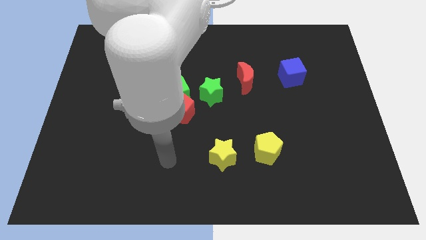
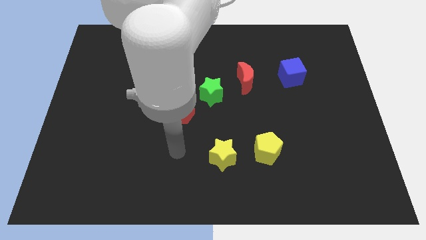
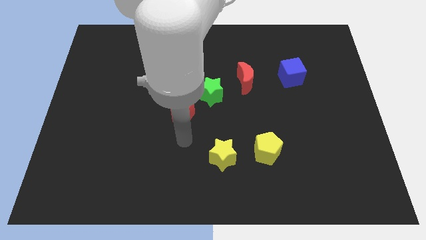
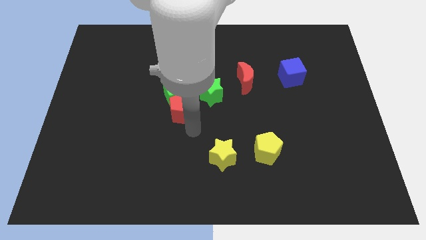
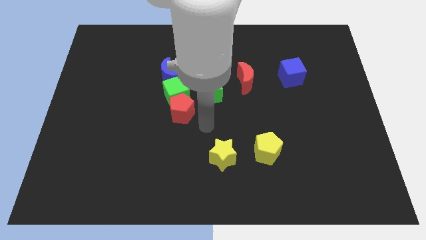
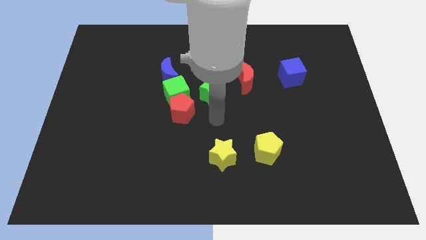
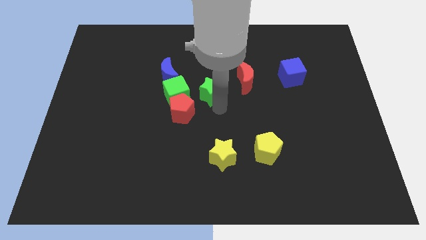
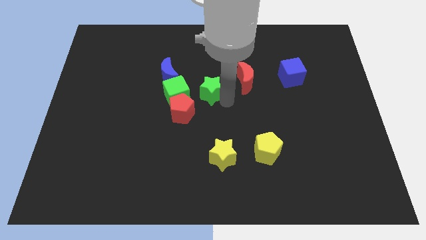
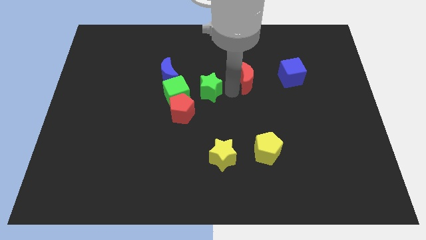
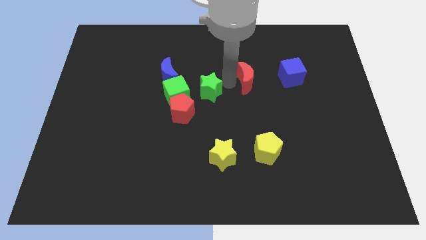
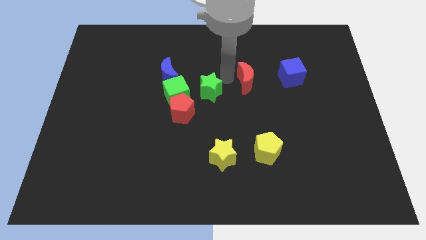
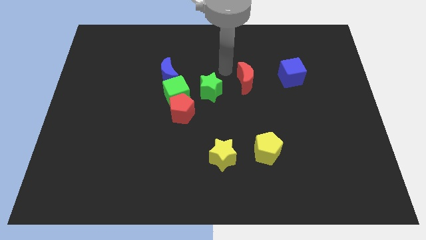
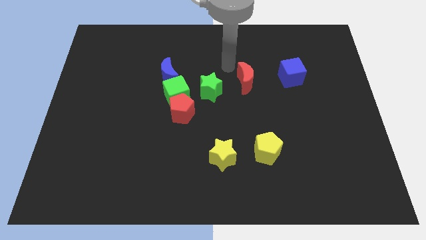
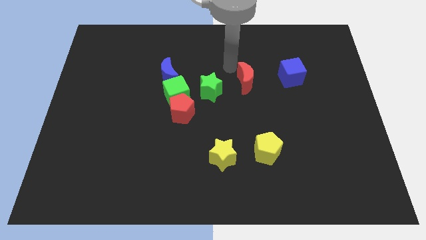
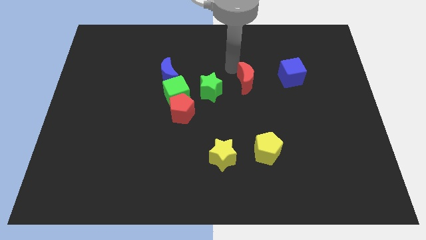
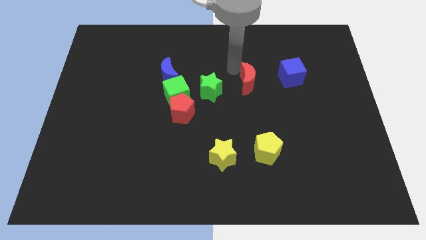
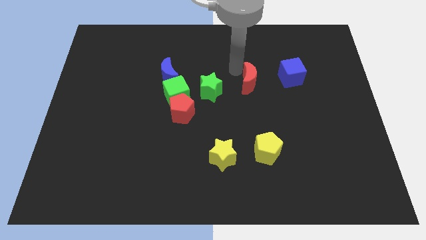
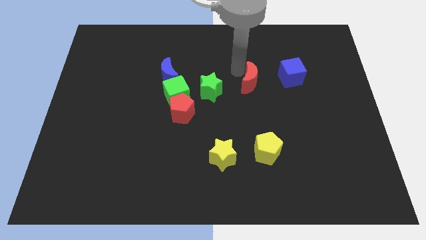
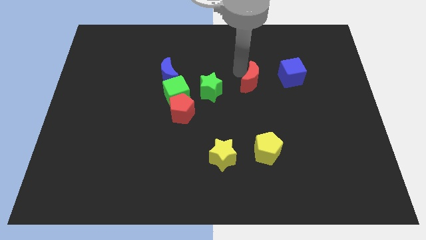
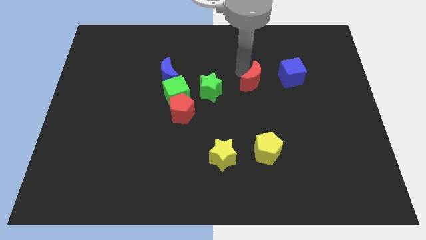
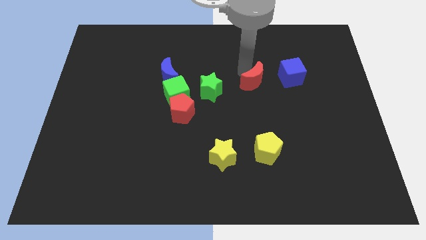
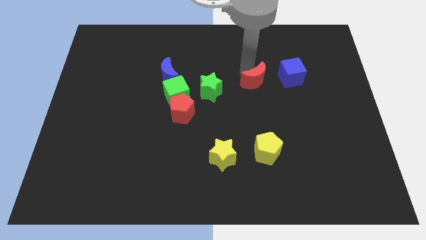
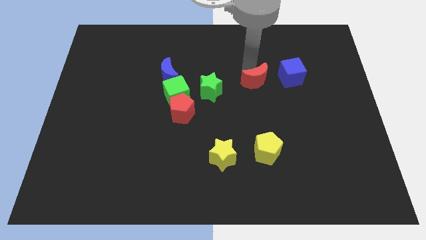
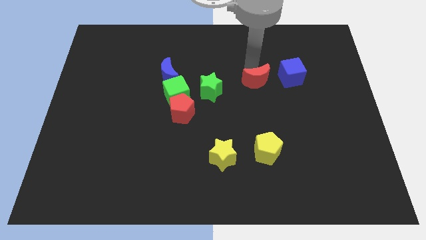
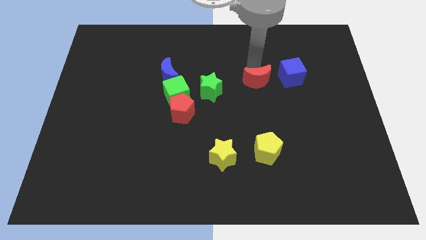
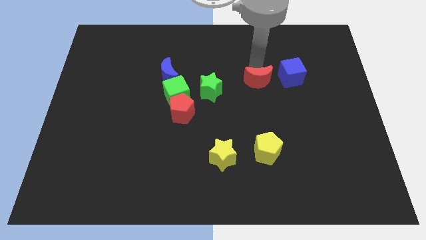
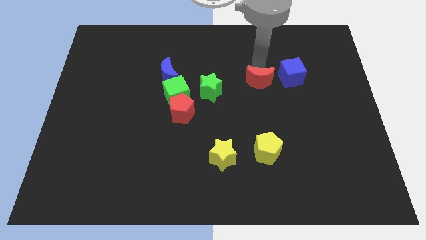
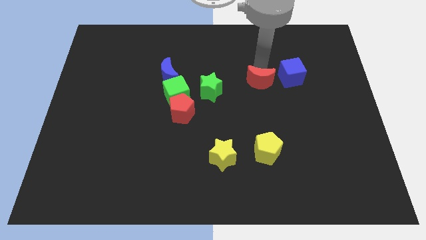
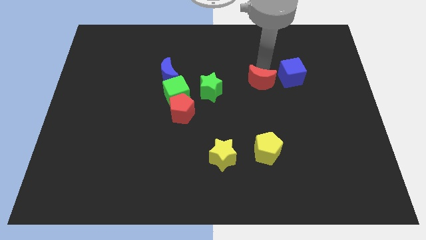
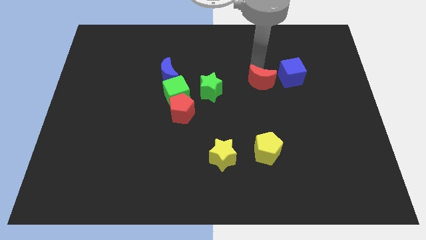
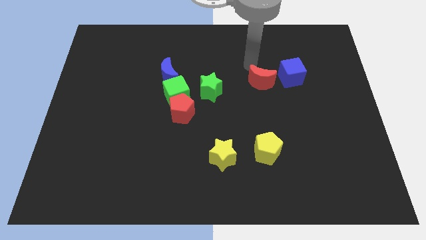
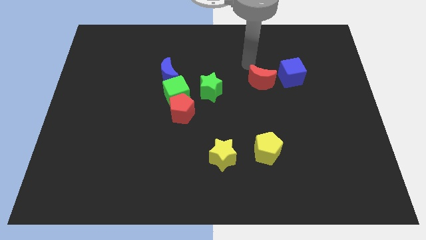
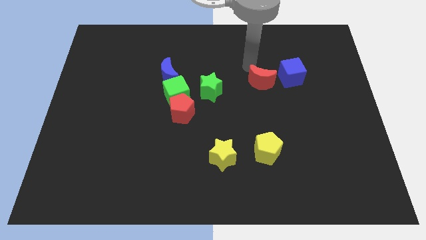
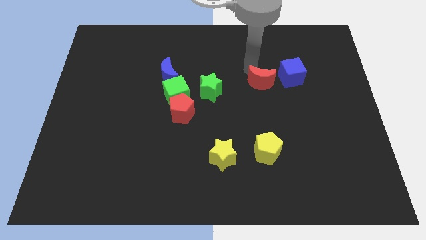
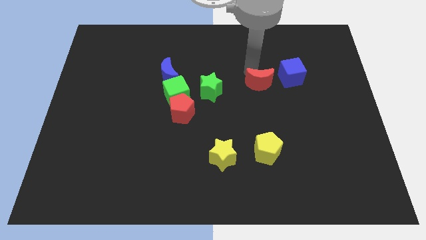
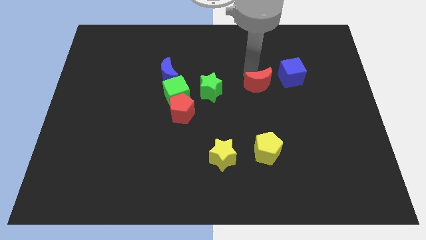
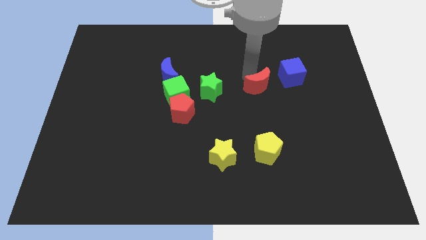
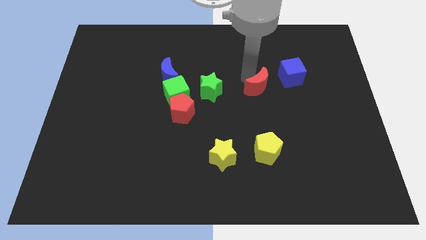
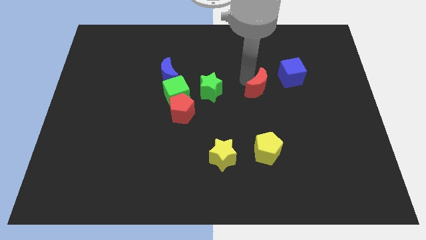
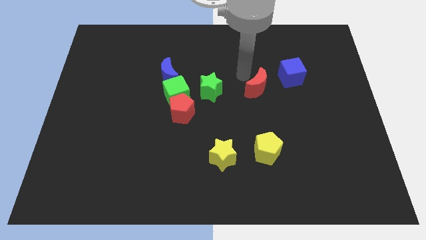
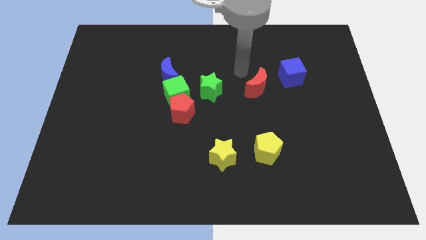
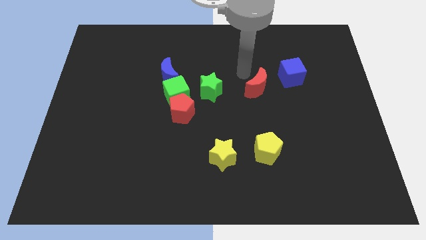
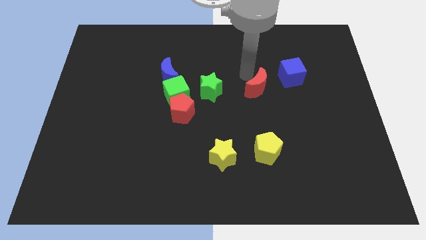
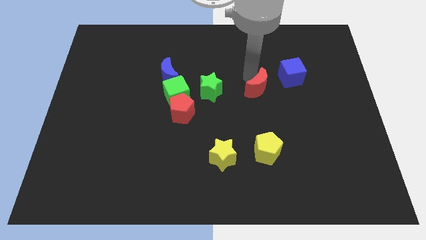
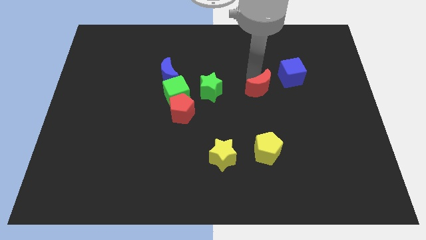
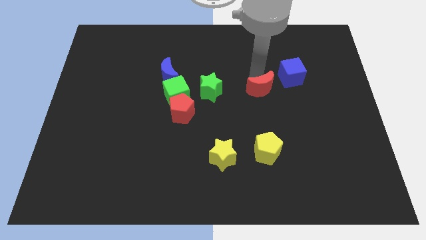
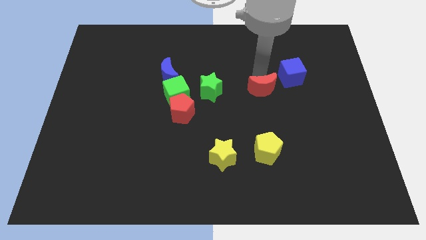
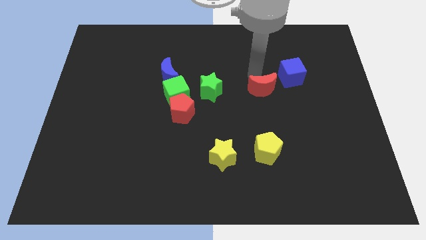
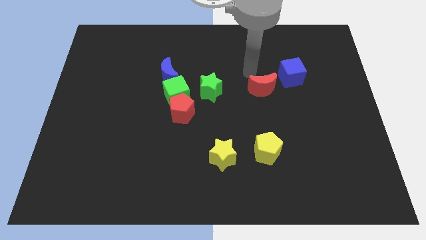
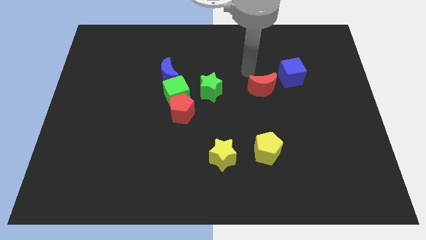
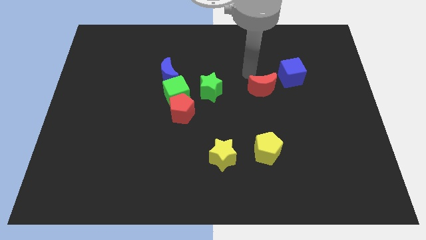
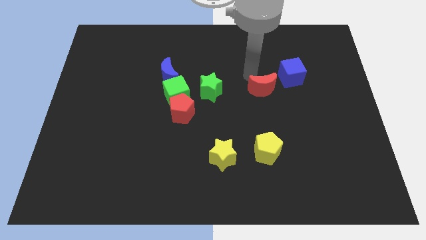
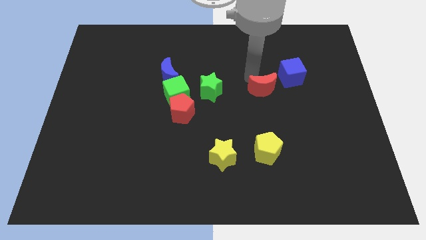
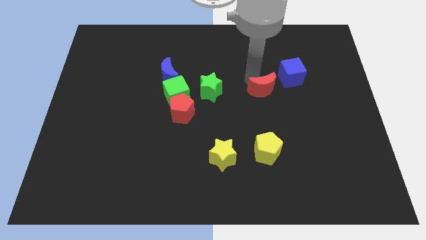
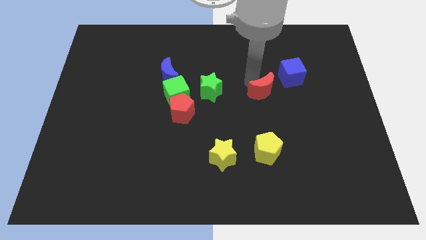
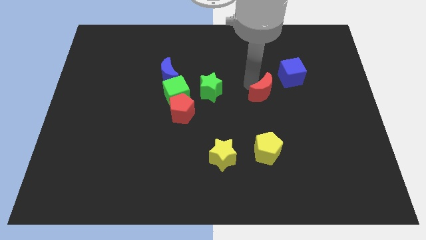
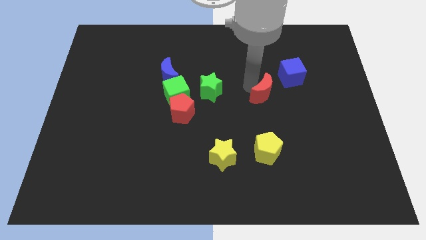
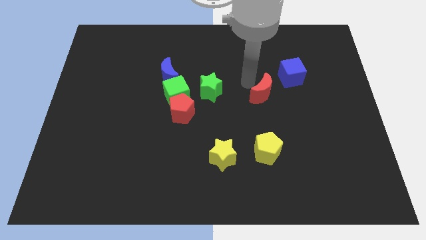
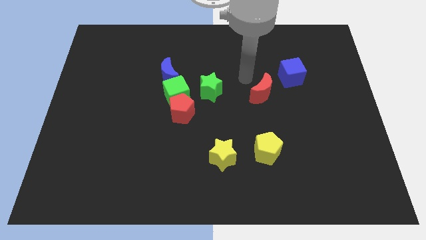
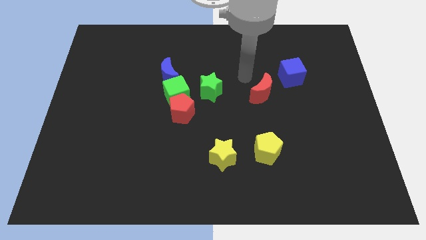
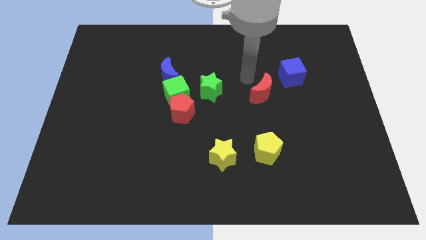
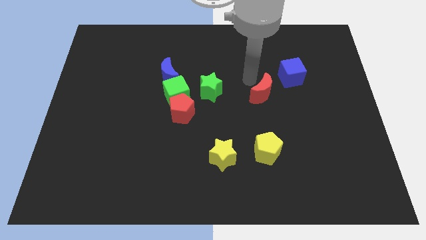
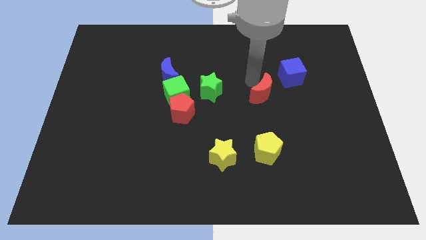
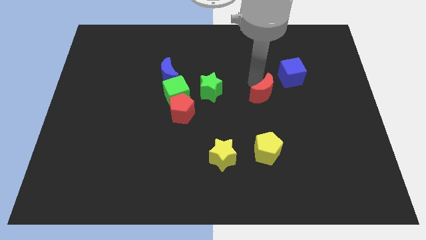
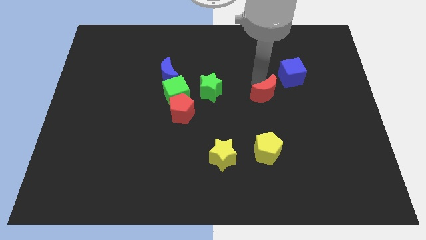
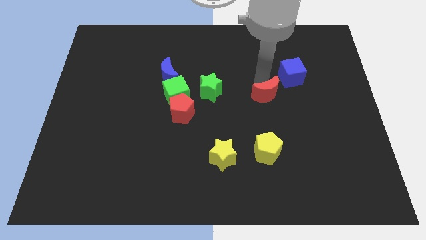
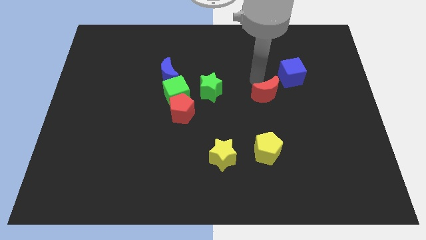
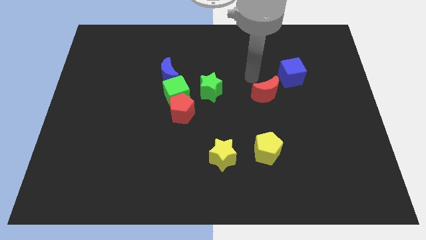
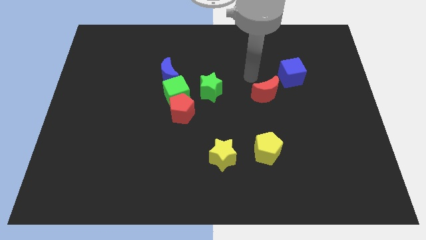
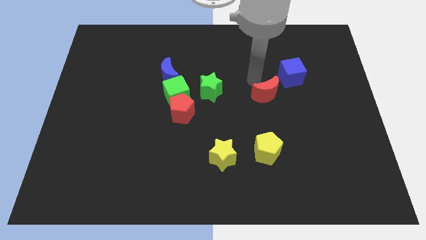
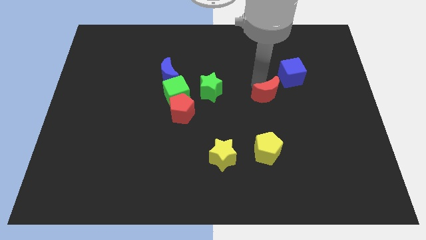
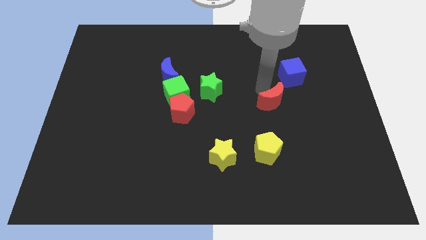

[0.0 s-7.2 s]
slightly push the red moon downwards and right diagonally

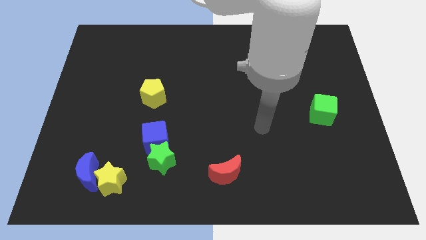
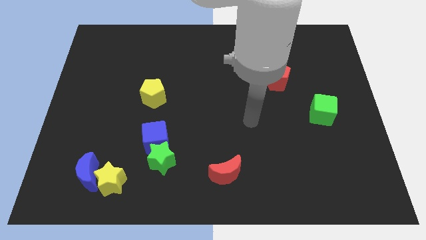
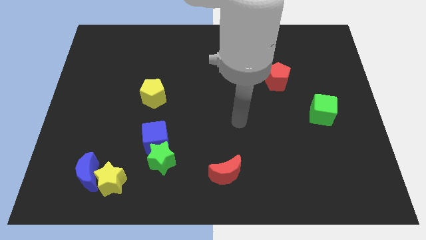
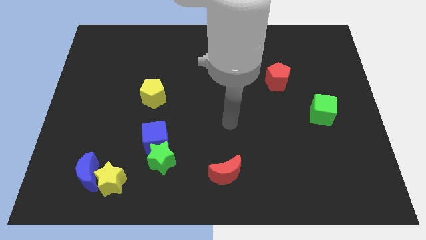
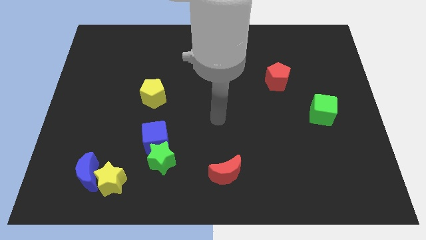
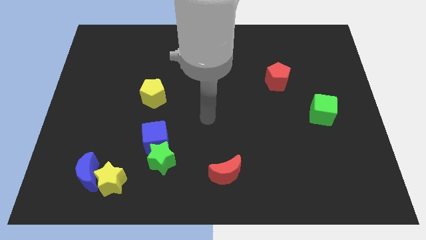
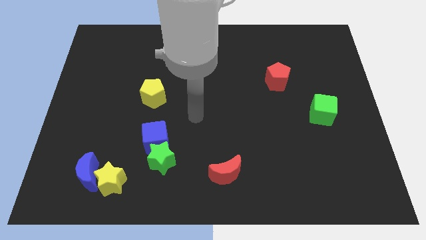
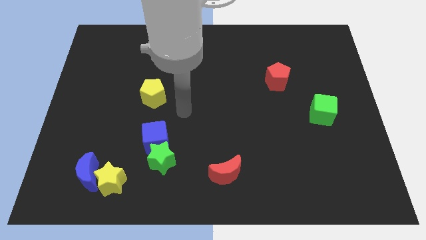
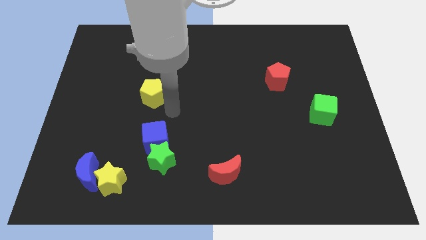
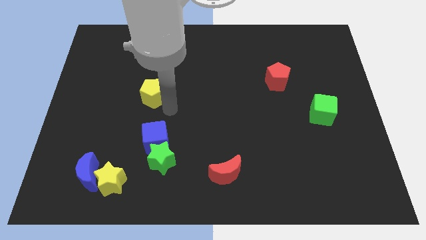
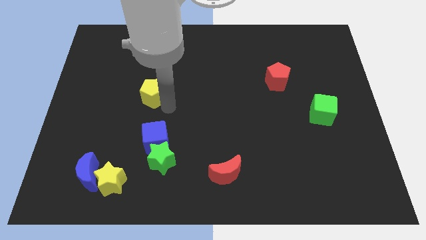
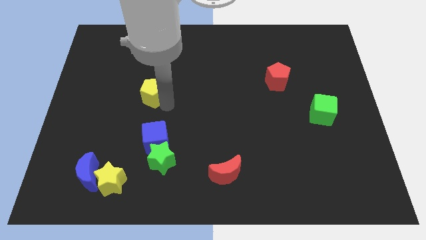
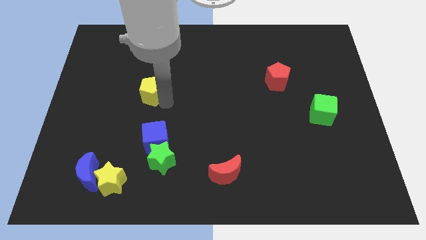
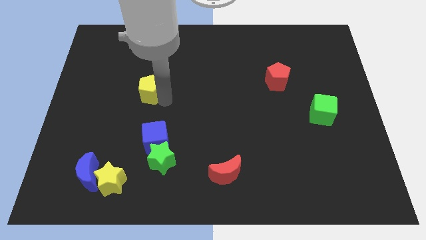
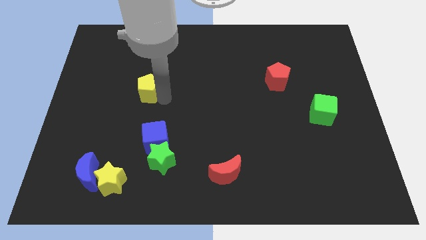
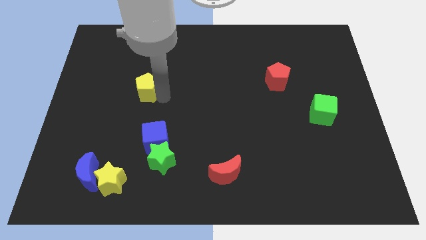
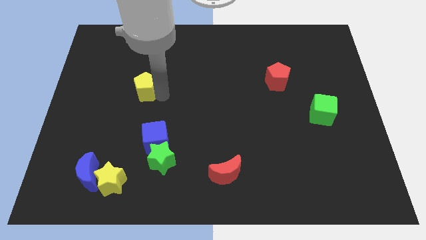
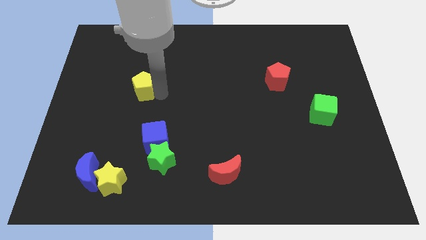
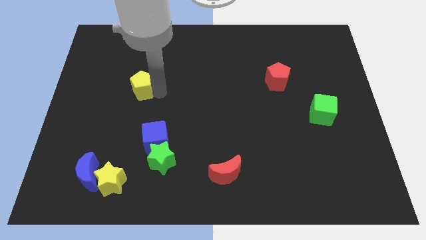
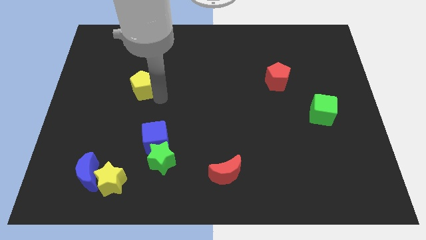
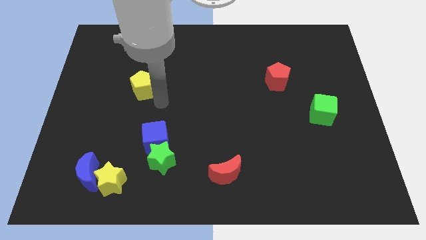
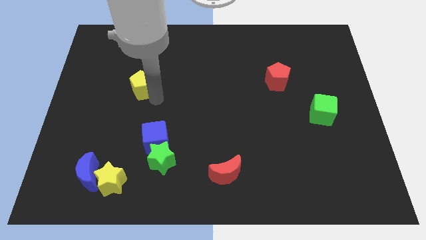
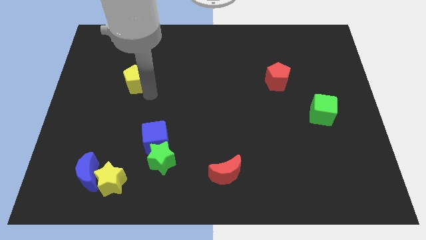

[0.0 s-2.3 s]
slide the yellow pentagon up and left diagonally a little bit
